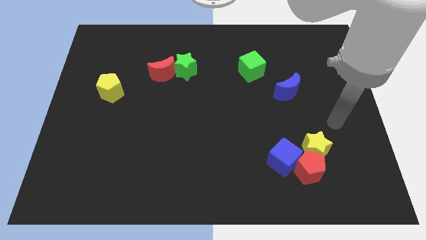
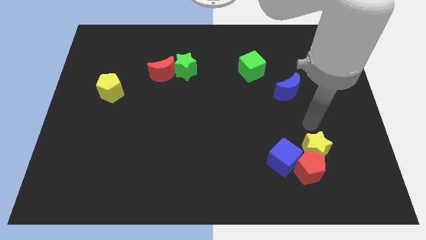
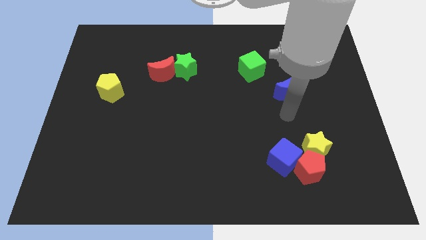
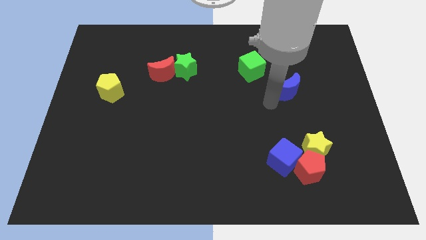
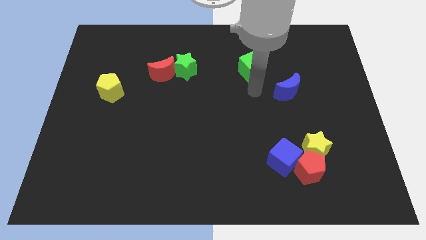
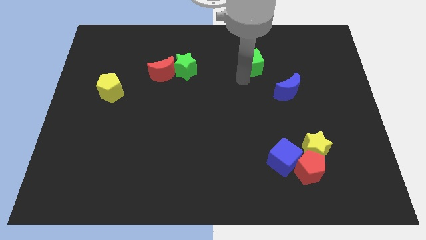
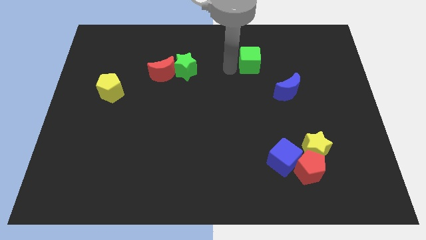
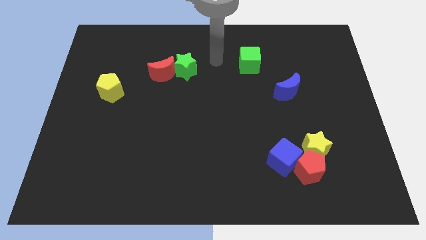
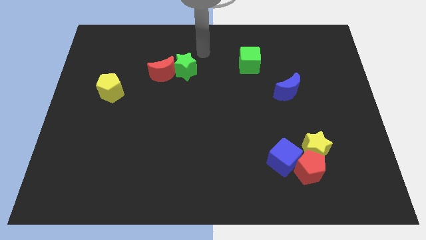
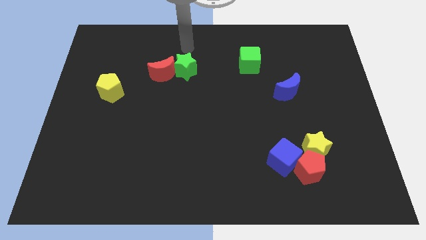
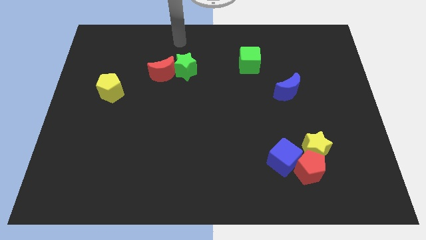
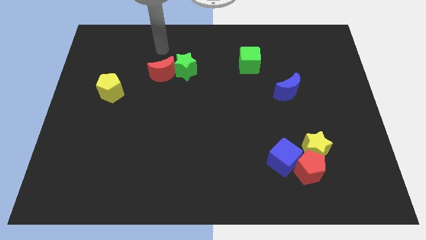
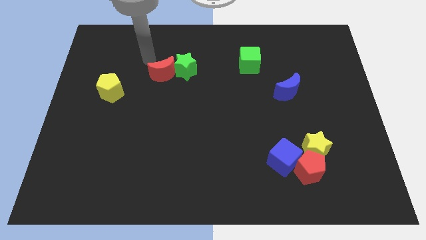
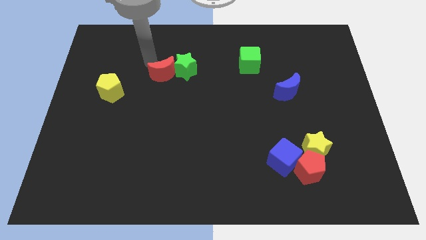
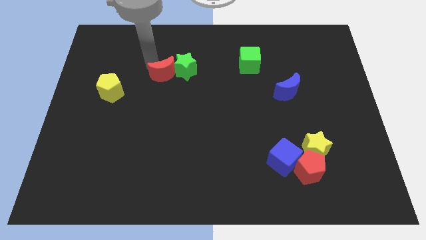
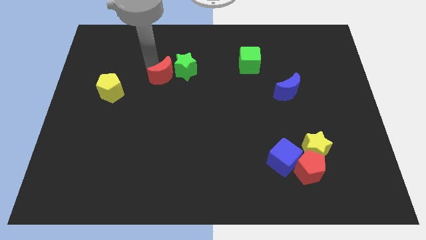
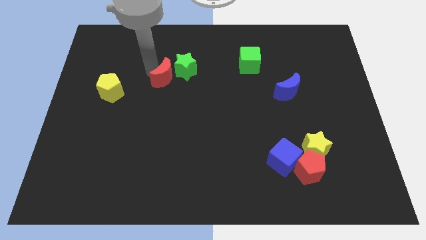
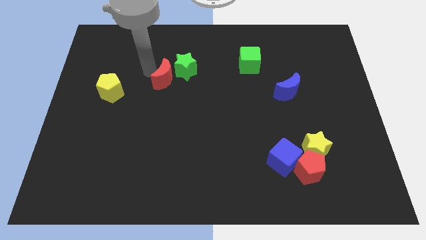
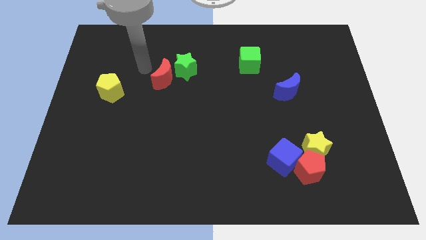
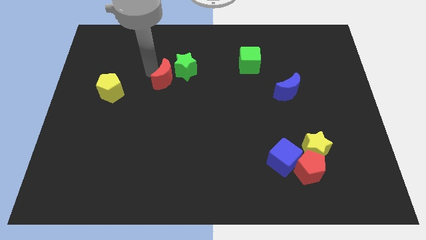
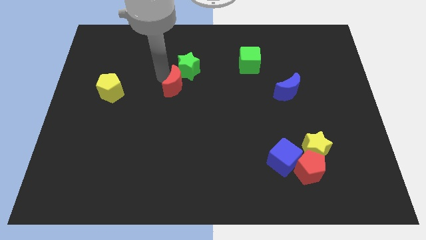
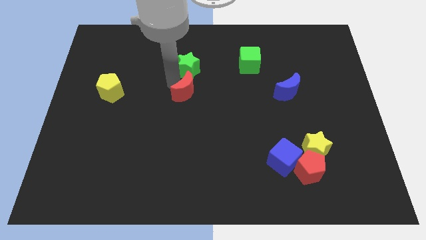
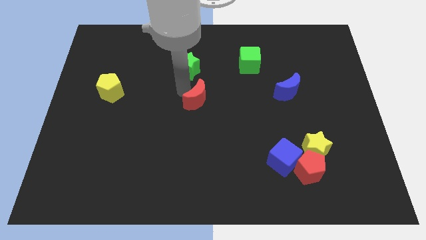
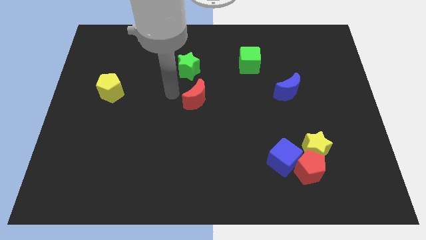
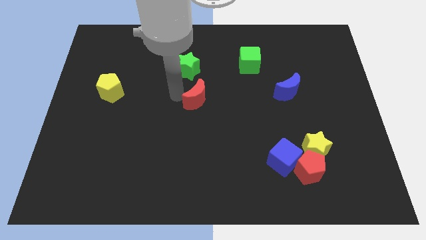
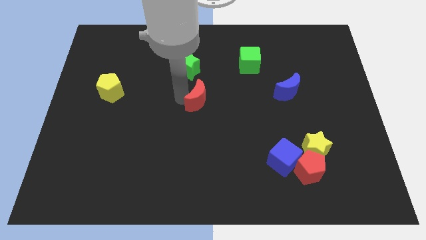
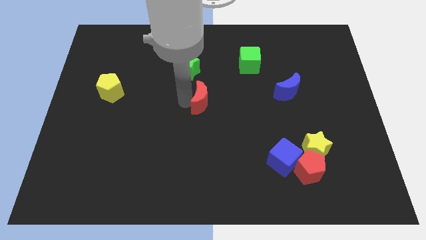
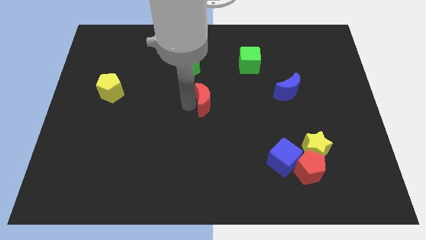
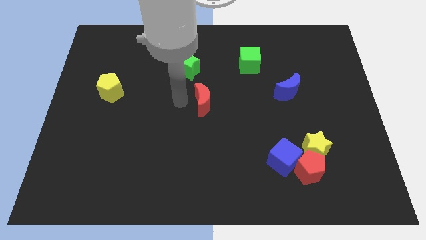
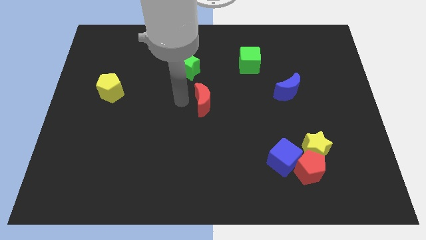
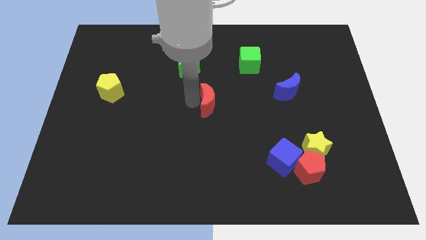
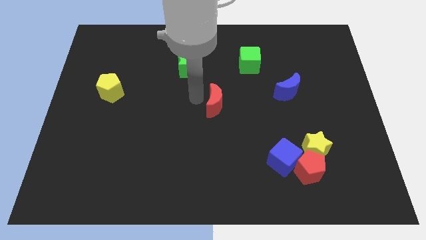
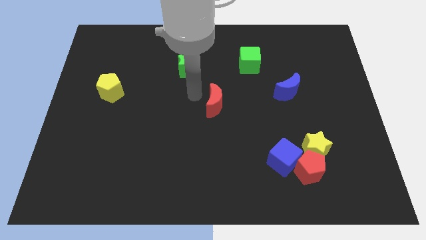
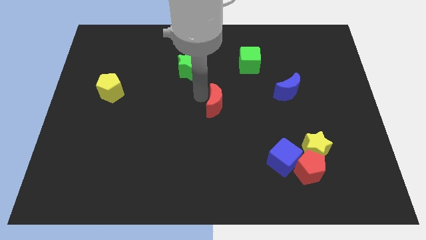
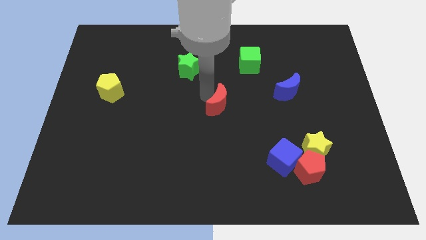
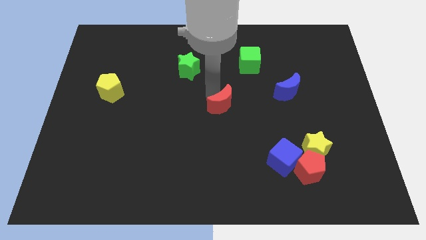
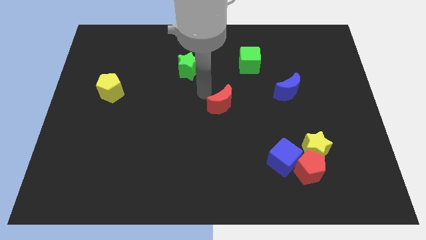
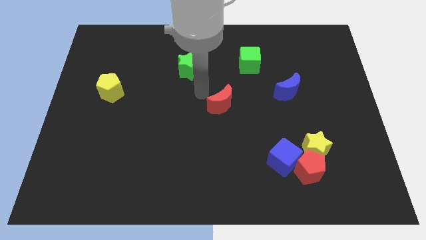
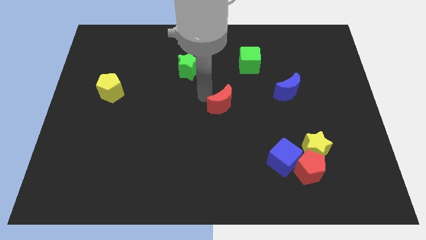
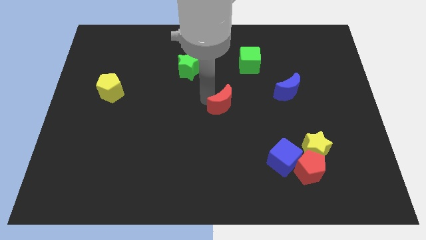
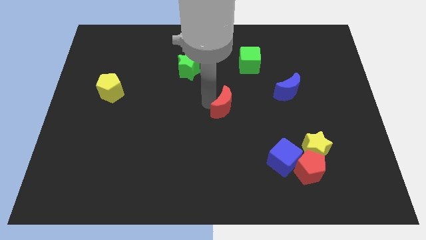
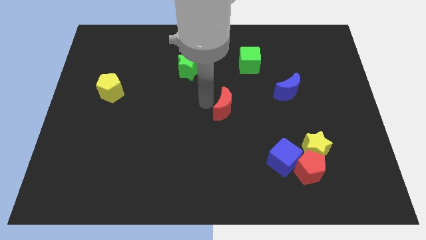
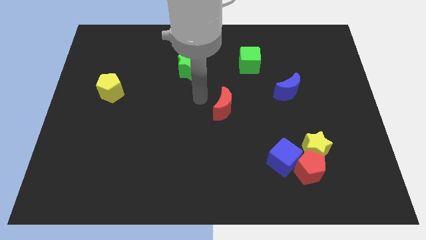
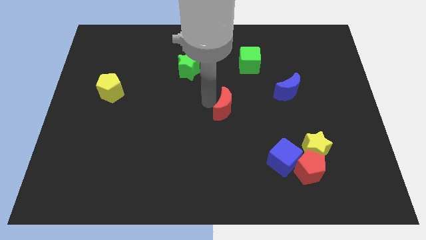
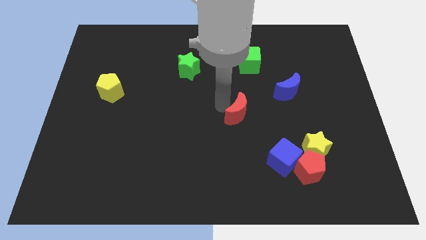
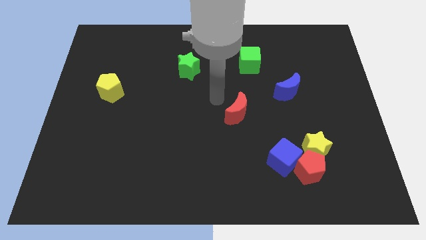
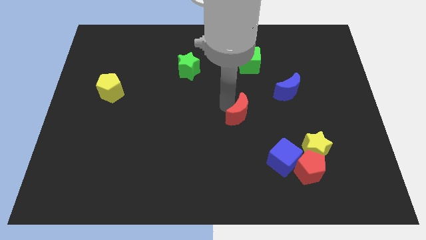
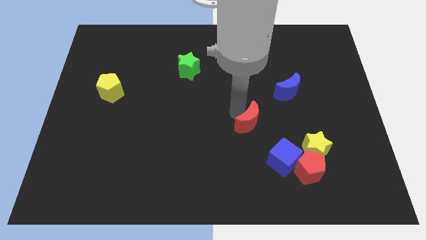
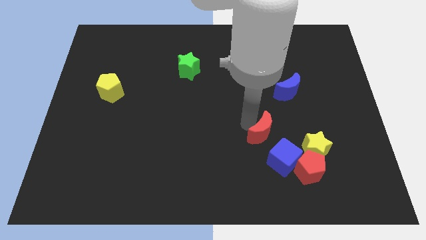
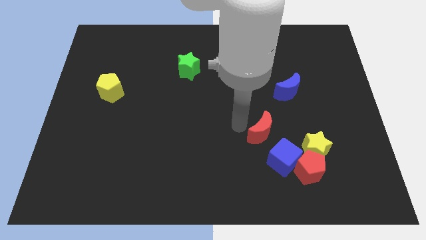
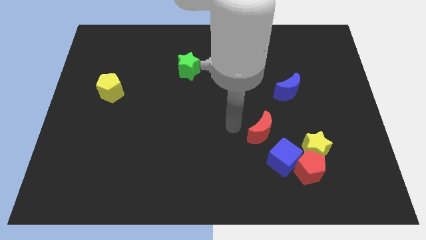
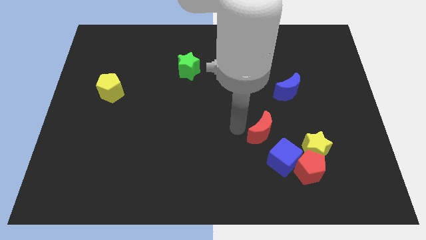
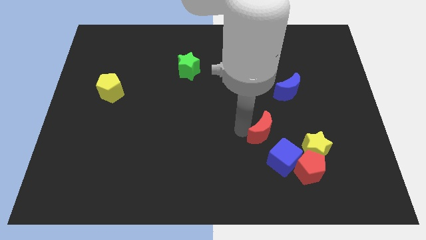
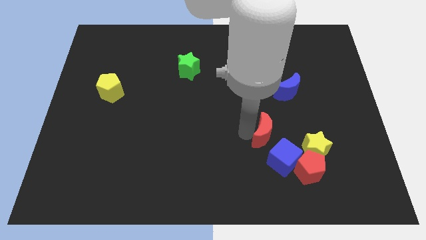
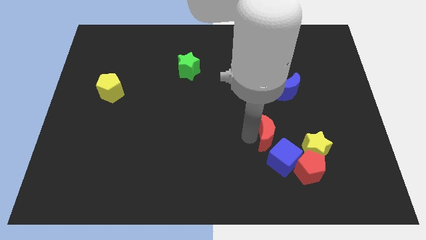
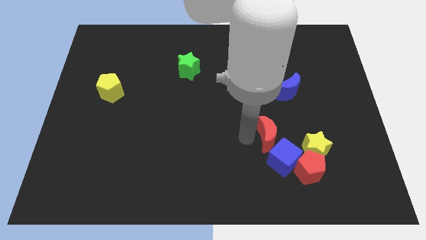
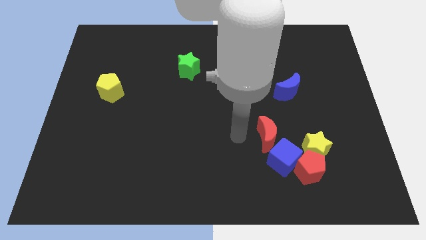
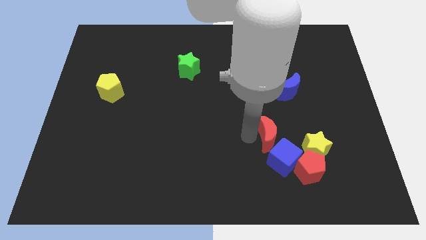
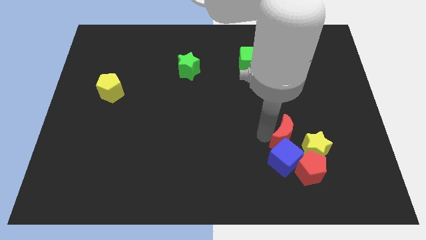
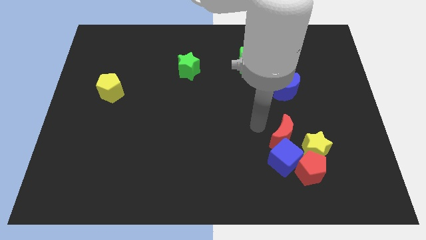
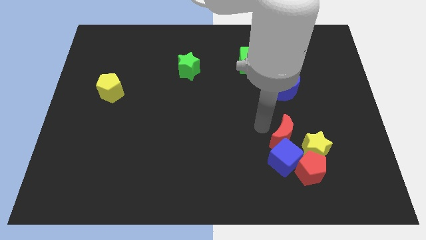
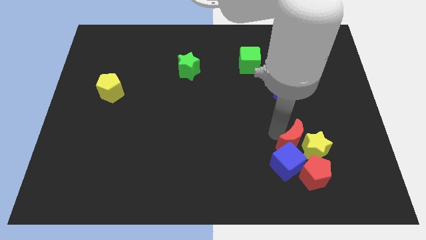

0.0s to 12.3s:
move the red moon next to the yellow star

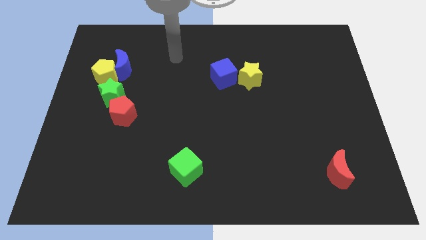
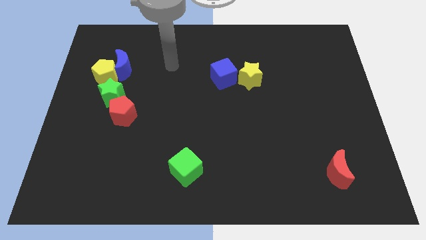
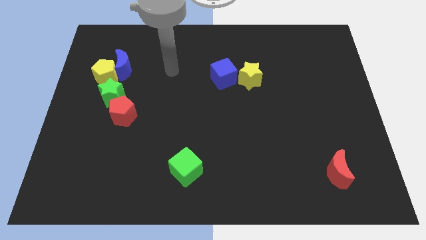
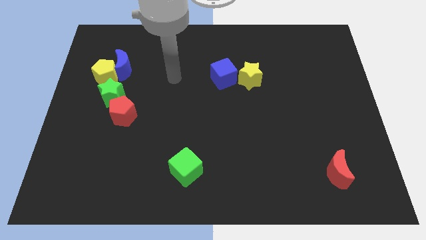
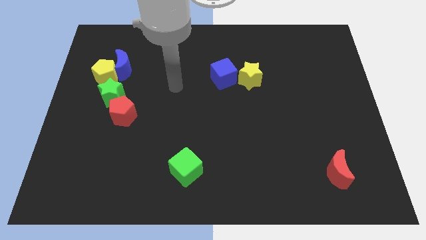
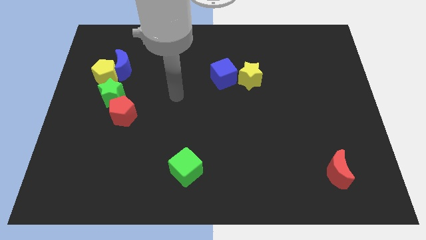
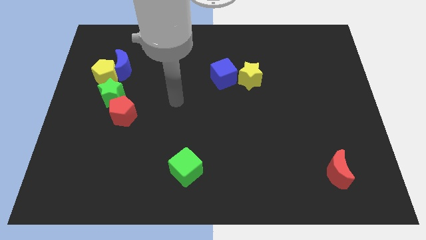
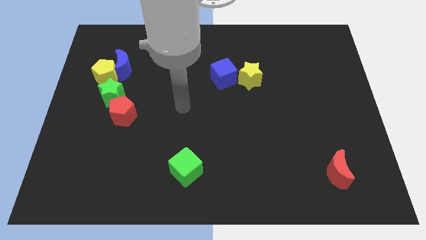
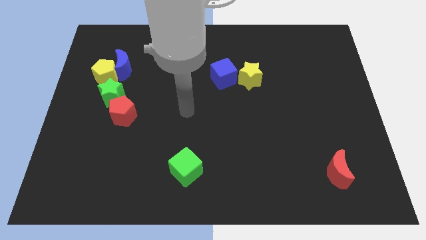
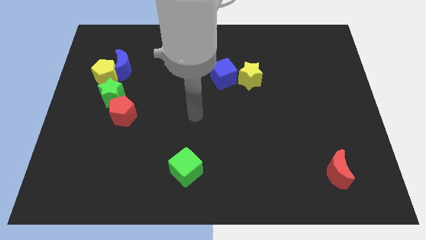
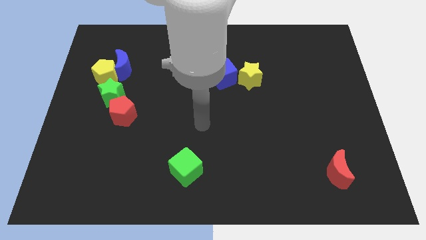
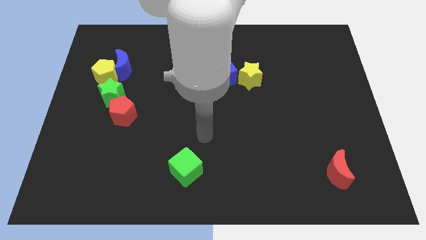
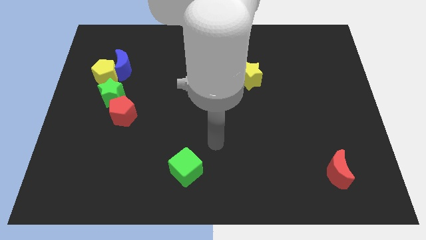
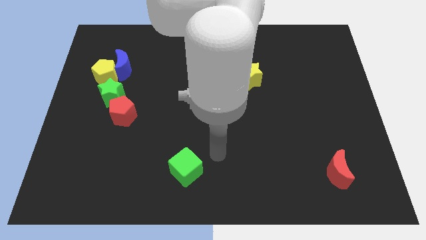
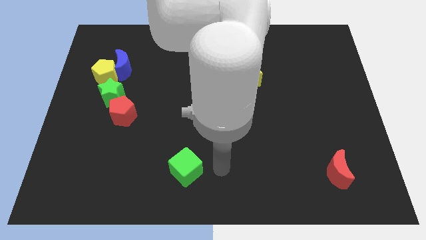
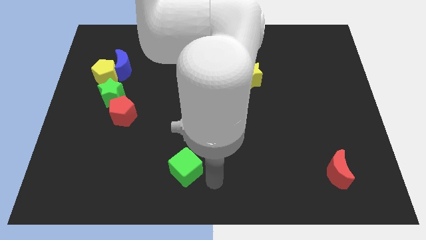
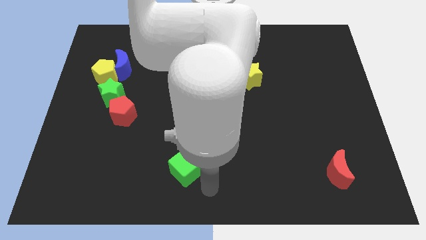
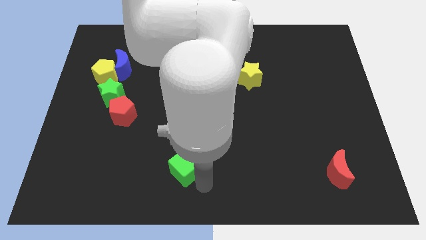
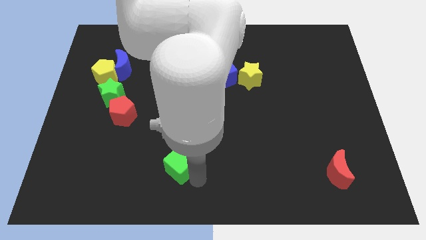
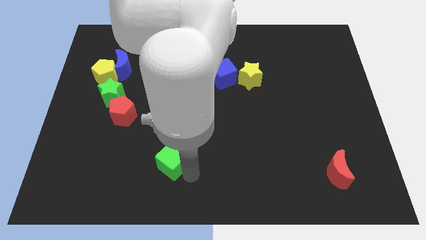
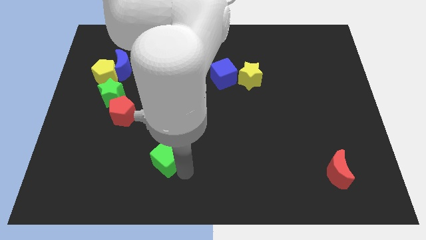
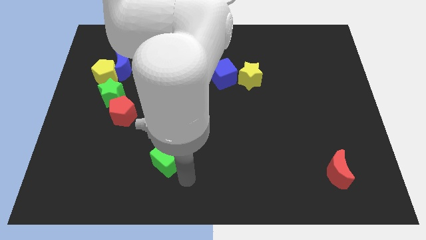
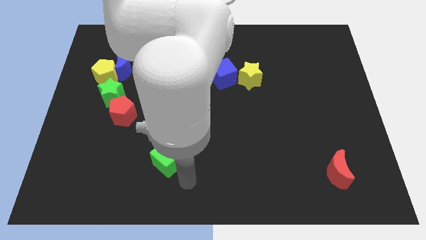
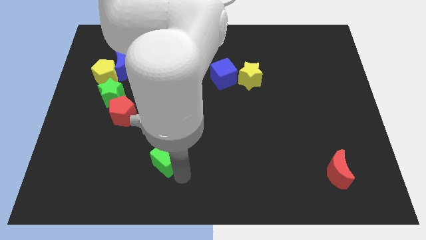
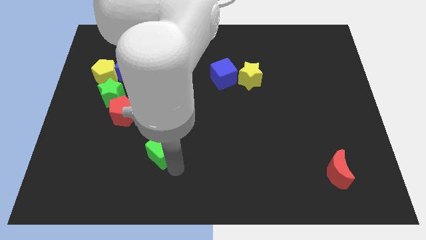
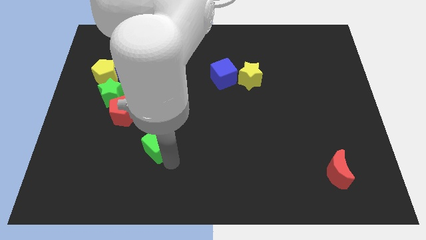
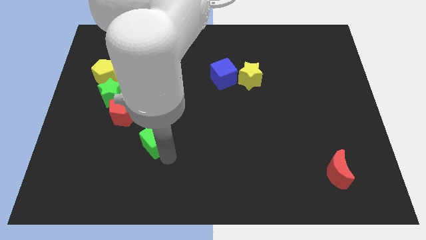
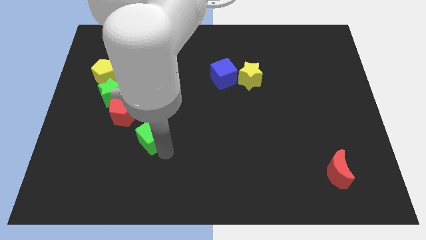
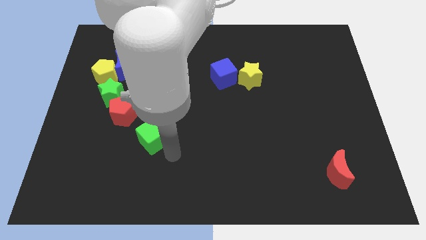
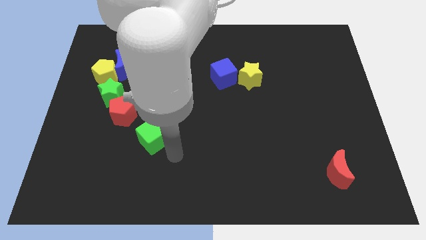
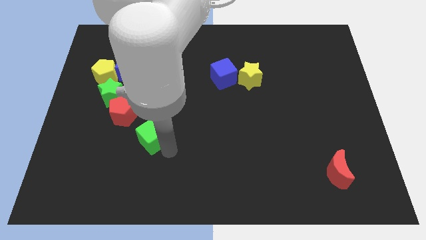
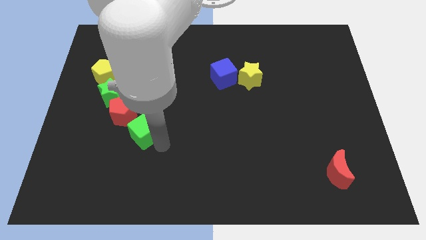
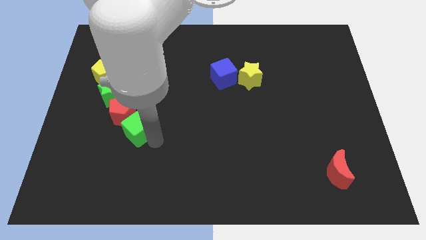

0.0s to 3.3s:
move the green cube to the red pentagon
